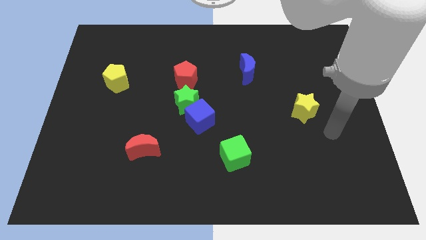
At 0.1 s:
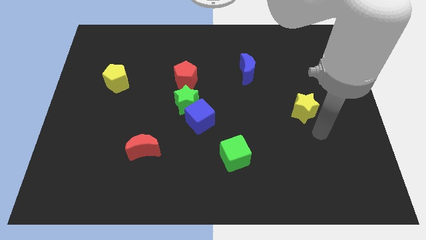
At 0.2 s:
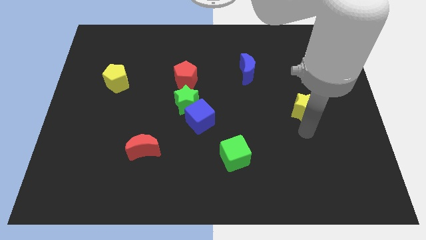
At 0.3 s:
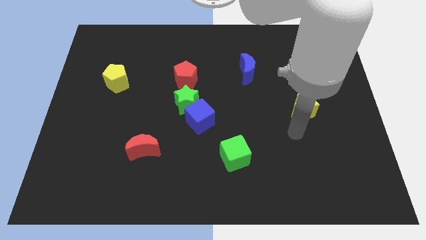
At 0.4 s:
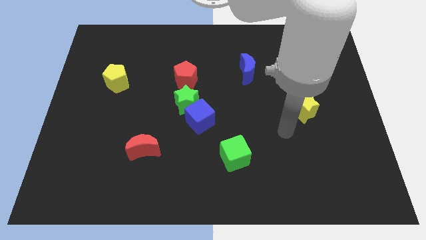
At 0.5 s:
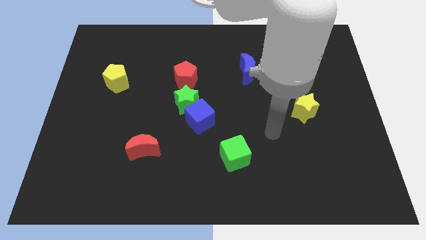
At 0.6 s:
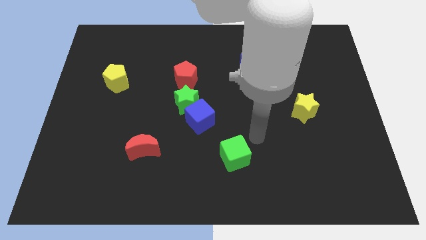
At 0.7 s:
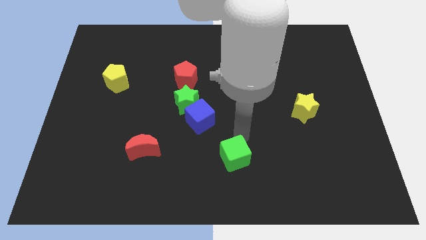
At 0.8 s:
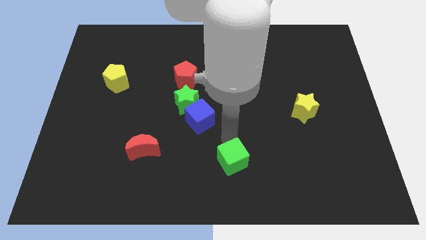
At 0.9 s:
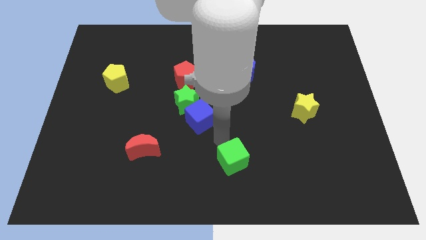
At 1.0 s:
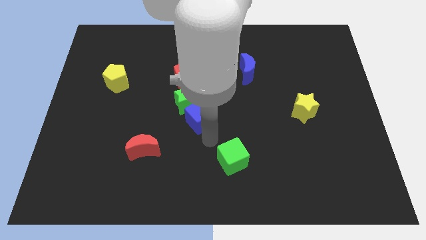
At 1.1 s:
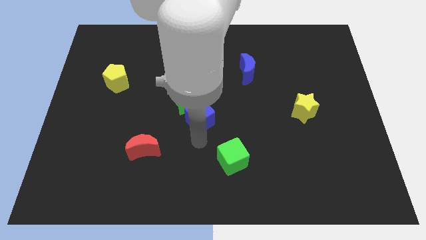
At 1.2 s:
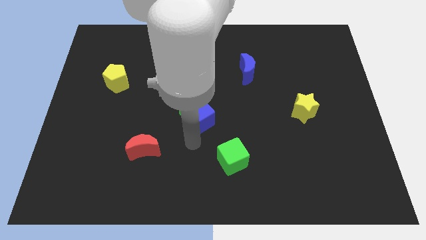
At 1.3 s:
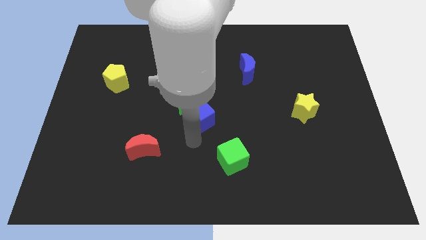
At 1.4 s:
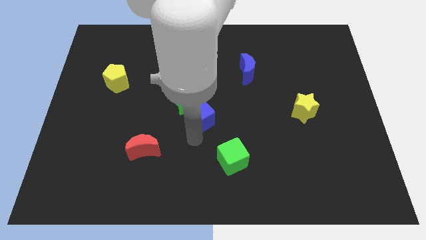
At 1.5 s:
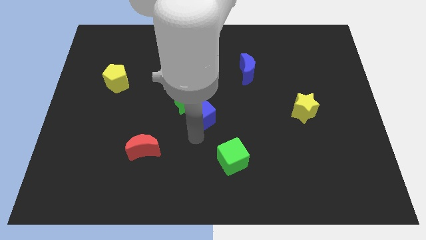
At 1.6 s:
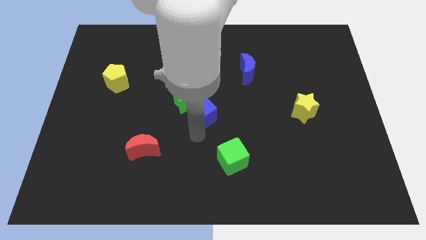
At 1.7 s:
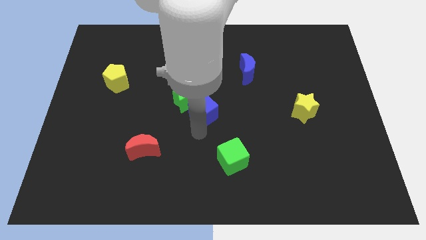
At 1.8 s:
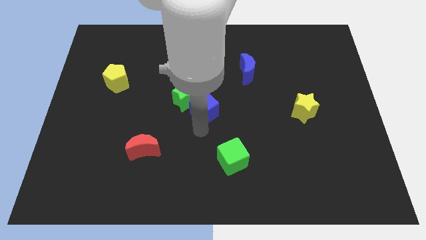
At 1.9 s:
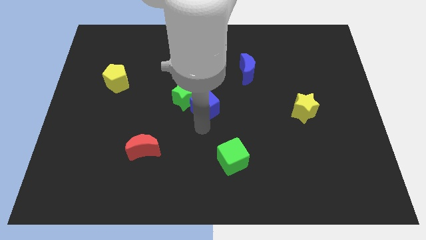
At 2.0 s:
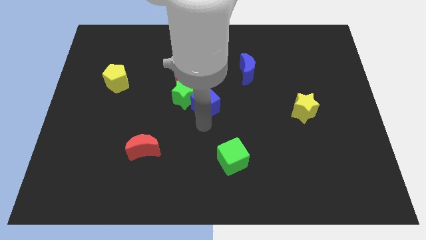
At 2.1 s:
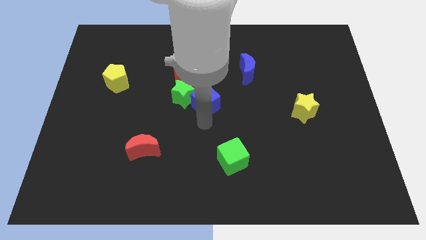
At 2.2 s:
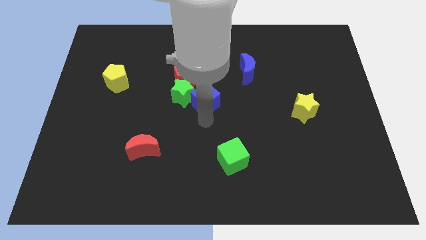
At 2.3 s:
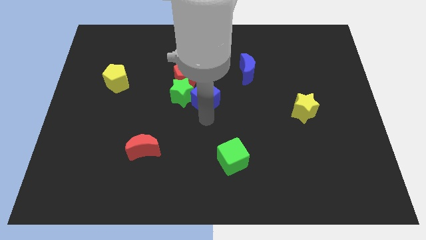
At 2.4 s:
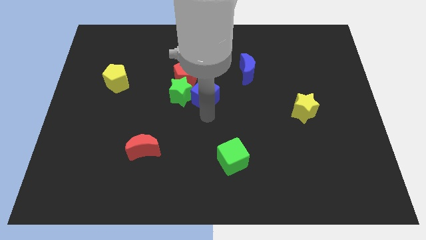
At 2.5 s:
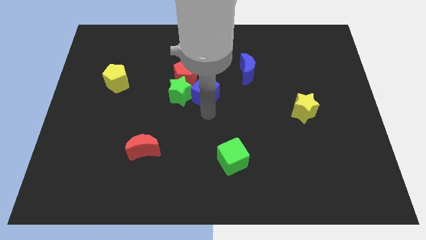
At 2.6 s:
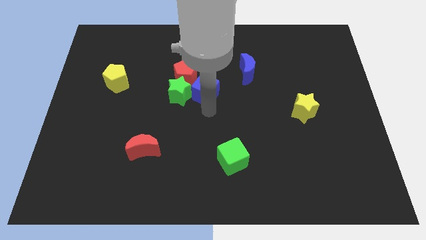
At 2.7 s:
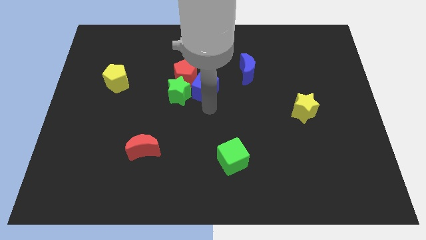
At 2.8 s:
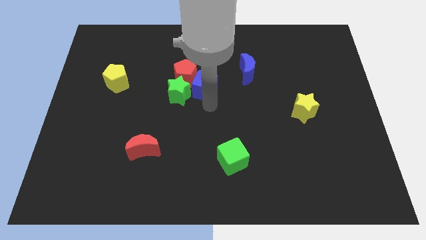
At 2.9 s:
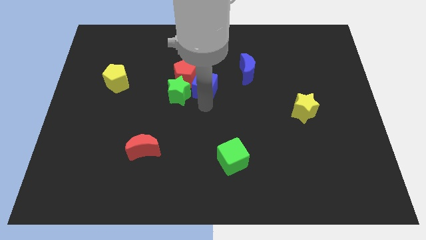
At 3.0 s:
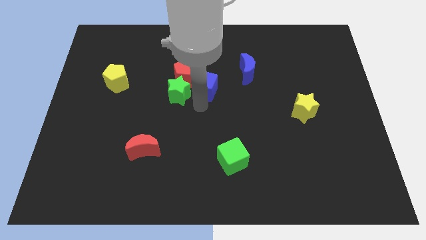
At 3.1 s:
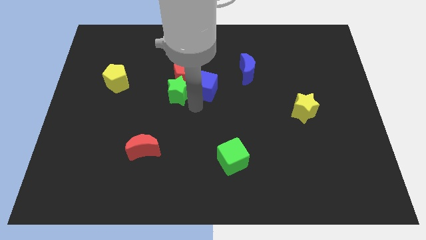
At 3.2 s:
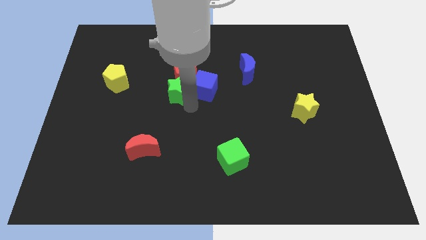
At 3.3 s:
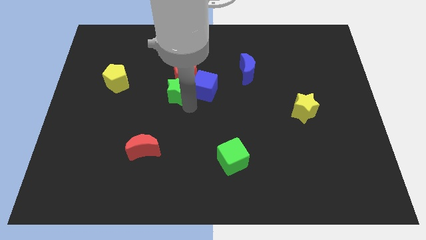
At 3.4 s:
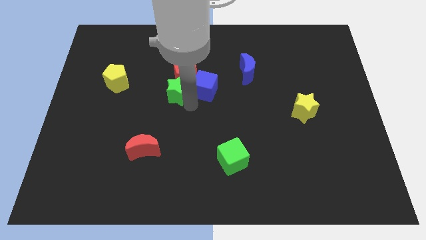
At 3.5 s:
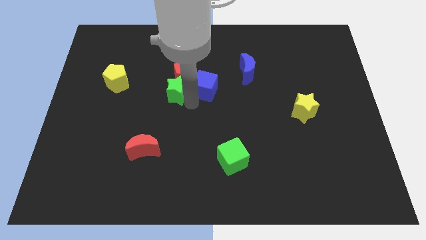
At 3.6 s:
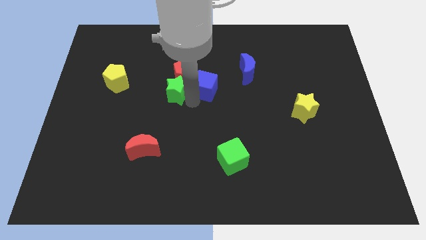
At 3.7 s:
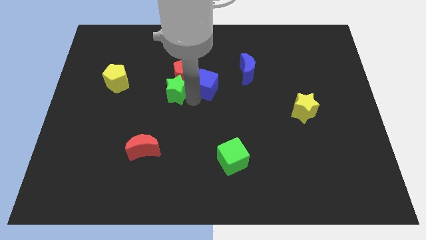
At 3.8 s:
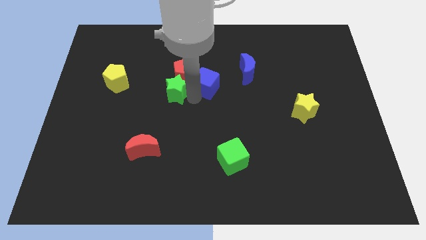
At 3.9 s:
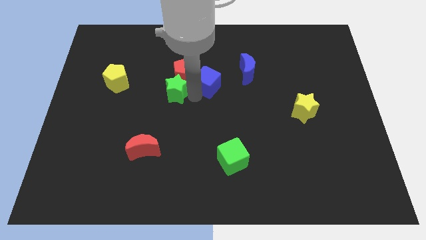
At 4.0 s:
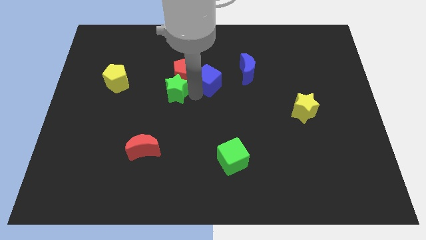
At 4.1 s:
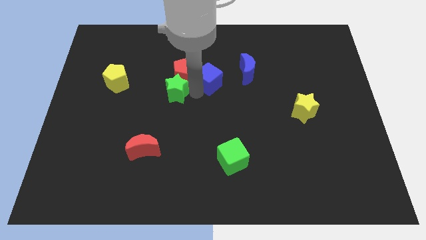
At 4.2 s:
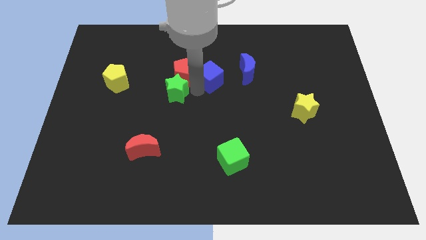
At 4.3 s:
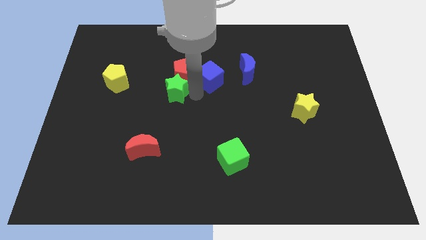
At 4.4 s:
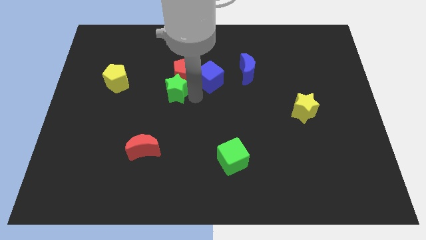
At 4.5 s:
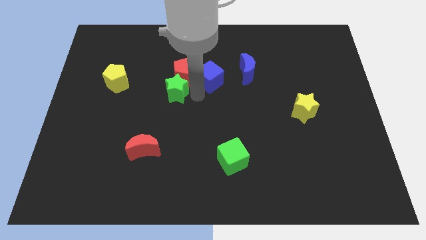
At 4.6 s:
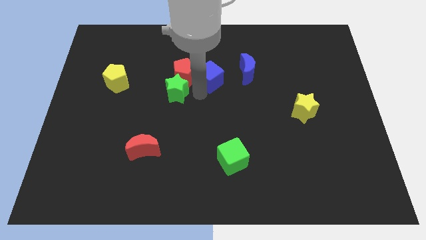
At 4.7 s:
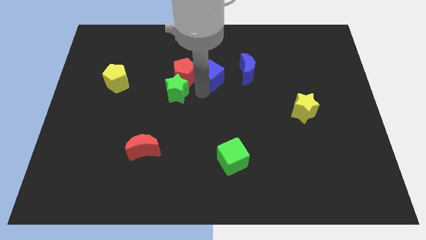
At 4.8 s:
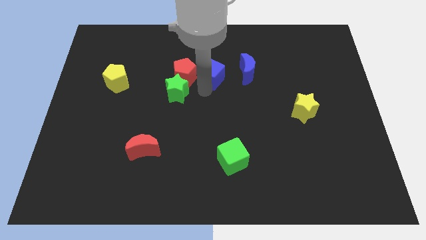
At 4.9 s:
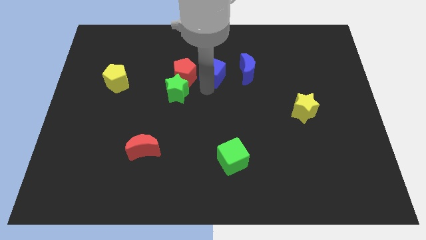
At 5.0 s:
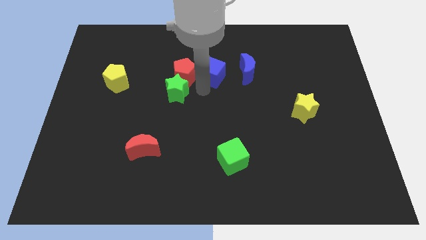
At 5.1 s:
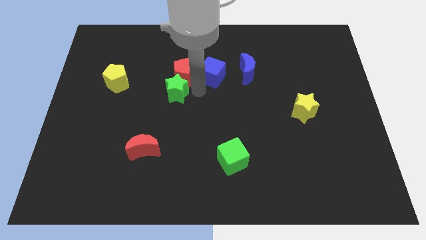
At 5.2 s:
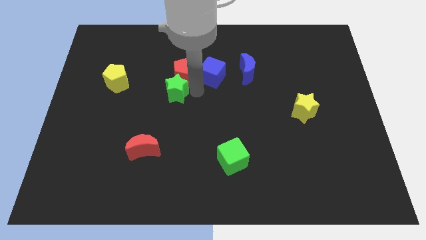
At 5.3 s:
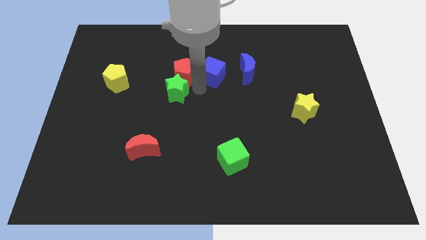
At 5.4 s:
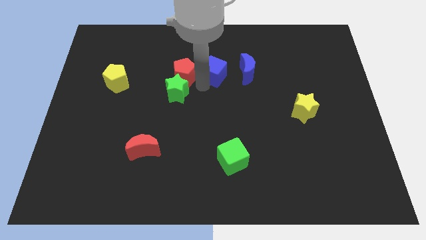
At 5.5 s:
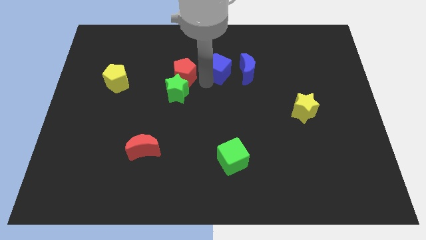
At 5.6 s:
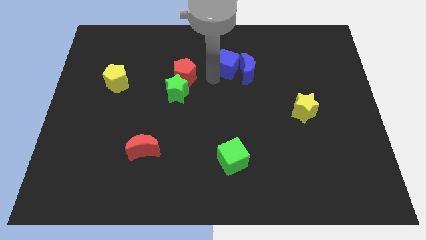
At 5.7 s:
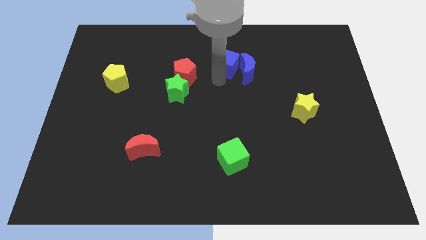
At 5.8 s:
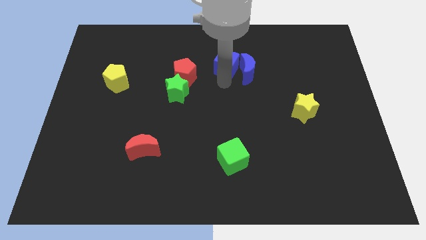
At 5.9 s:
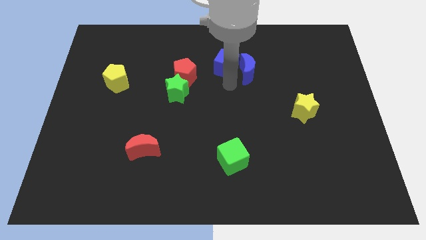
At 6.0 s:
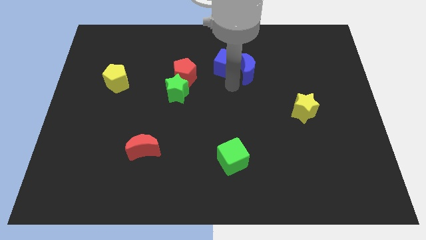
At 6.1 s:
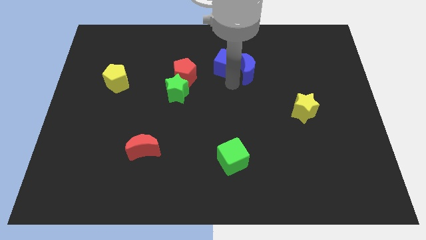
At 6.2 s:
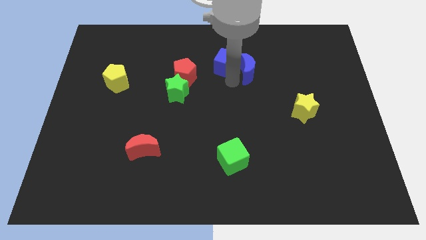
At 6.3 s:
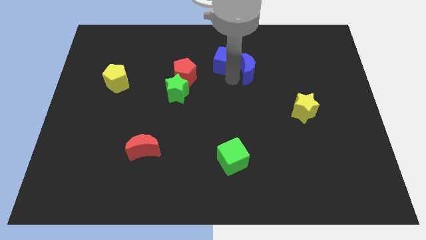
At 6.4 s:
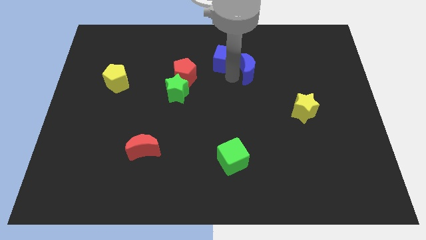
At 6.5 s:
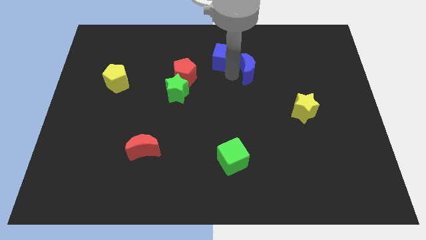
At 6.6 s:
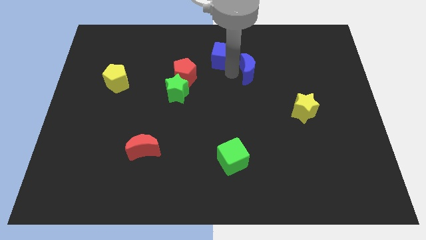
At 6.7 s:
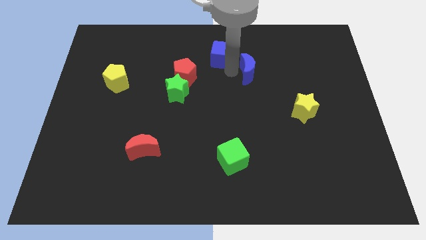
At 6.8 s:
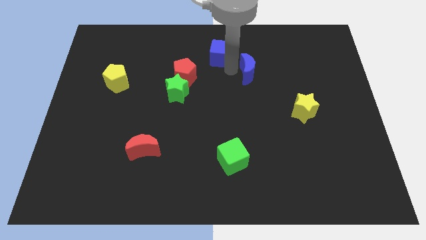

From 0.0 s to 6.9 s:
put the blue cube to the top

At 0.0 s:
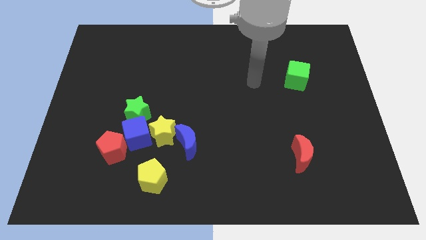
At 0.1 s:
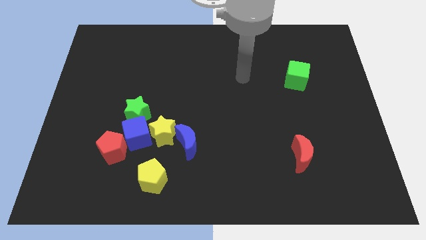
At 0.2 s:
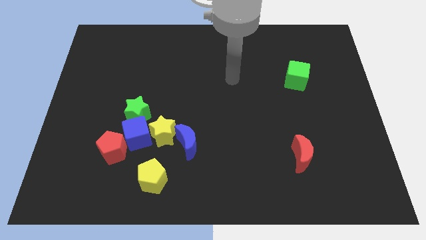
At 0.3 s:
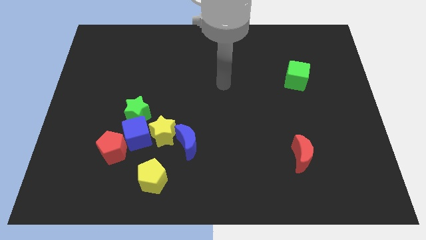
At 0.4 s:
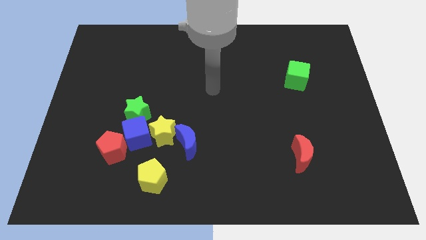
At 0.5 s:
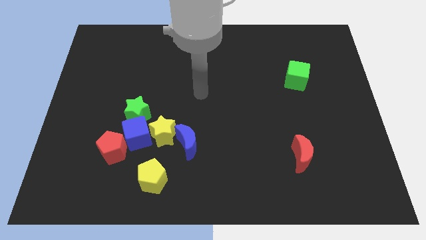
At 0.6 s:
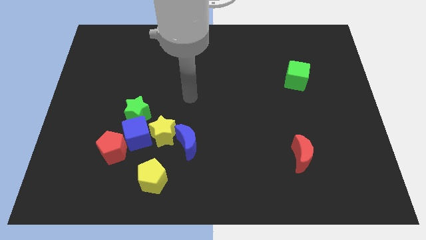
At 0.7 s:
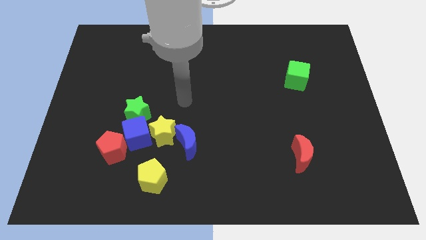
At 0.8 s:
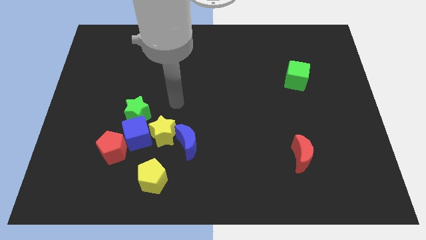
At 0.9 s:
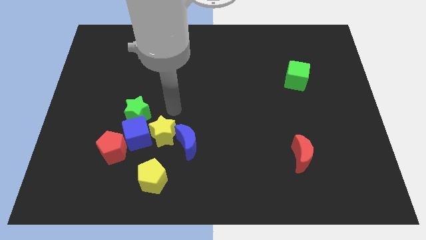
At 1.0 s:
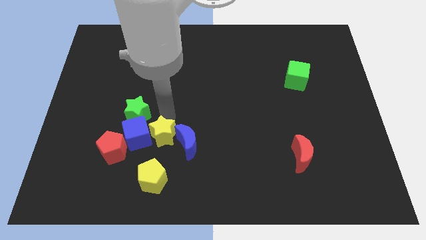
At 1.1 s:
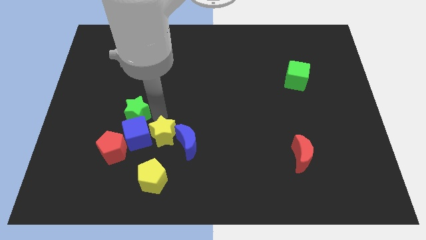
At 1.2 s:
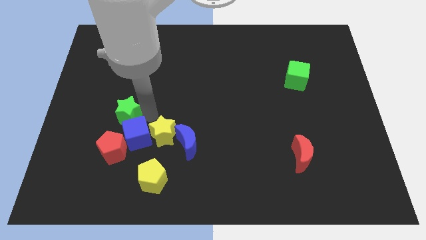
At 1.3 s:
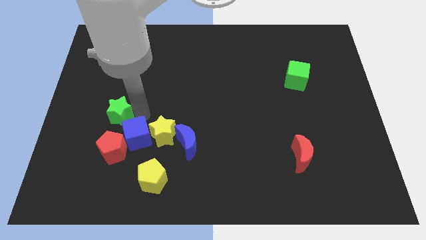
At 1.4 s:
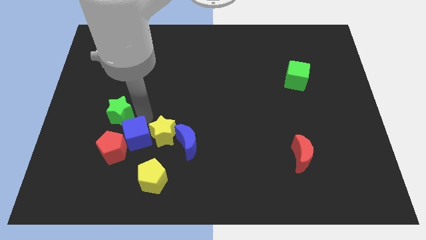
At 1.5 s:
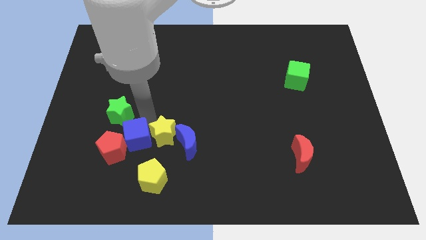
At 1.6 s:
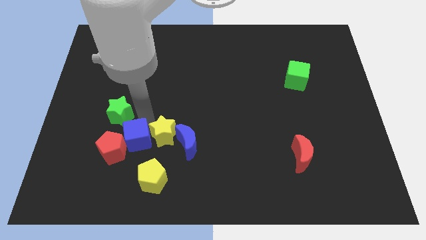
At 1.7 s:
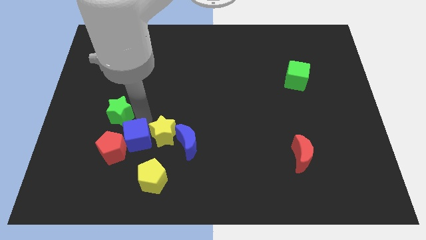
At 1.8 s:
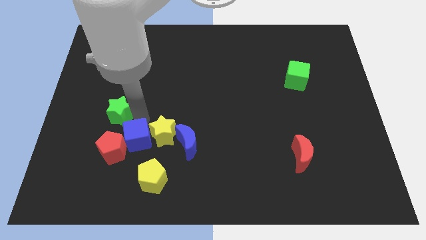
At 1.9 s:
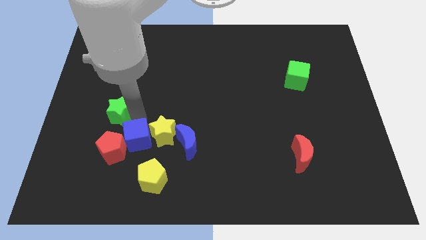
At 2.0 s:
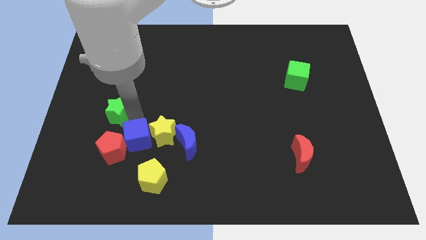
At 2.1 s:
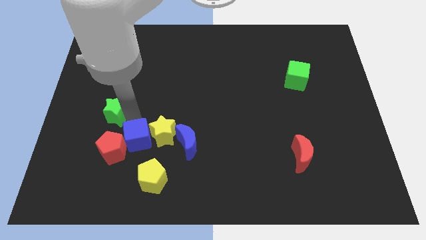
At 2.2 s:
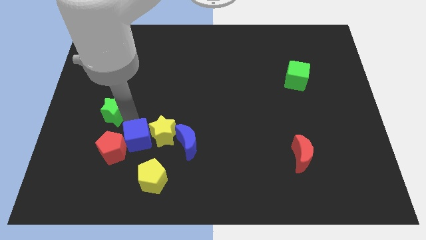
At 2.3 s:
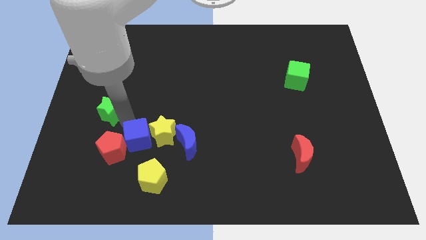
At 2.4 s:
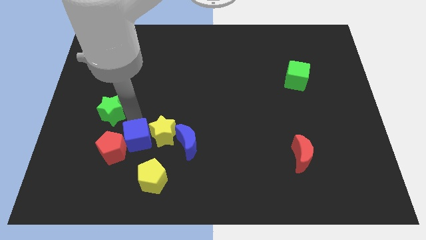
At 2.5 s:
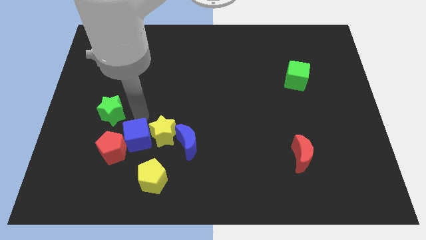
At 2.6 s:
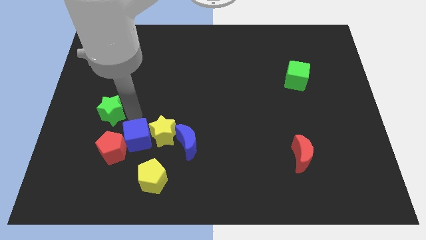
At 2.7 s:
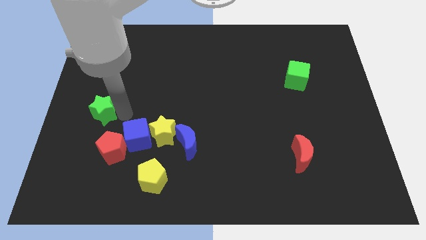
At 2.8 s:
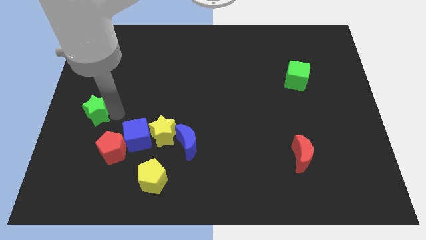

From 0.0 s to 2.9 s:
slide the green star to the center left
